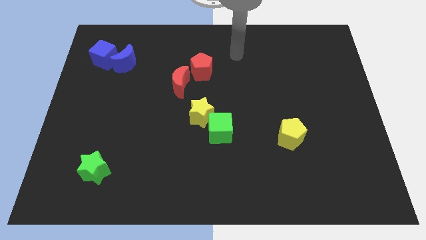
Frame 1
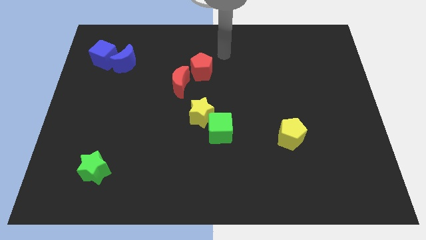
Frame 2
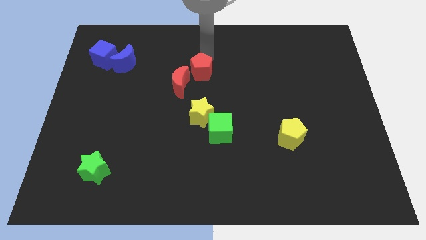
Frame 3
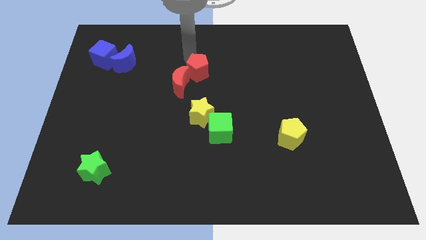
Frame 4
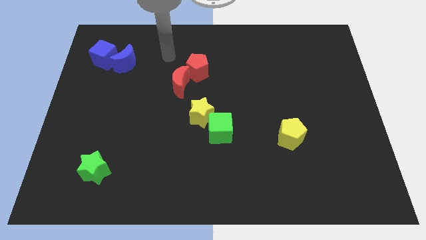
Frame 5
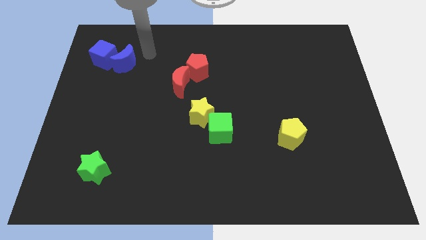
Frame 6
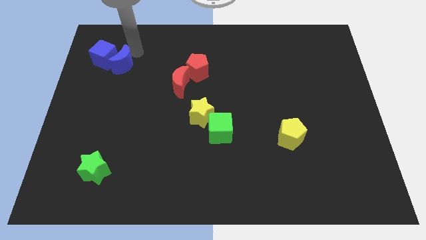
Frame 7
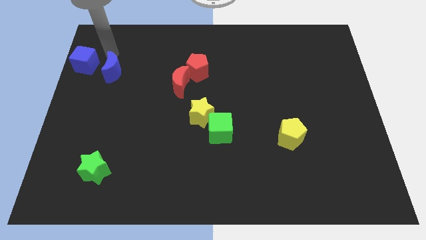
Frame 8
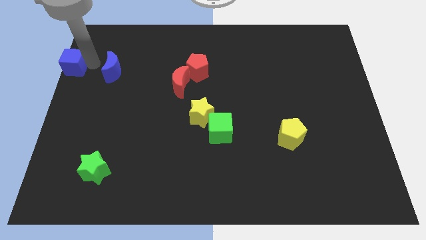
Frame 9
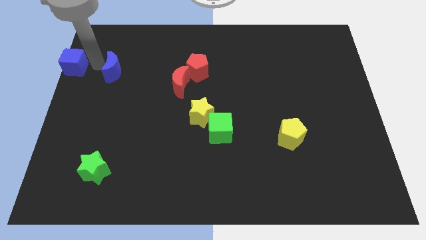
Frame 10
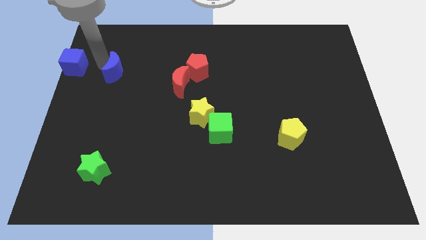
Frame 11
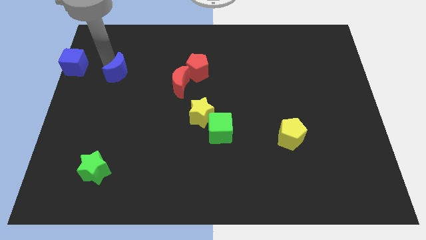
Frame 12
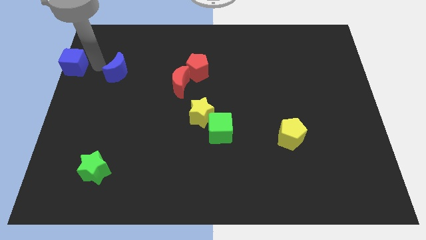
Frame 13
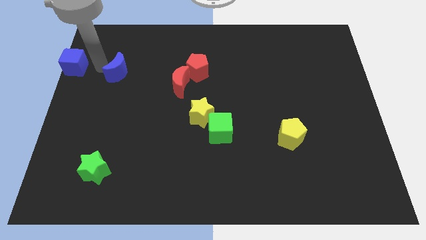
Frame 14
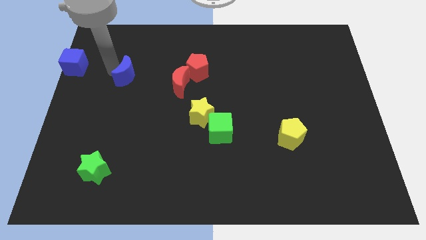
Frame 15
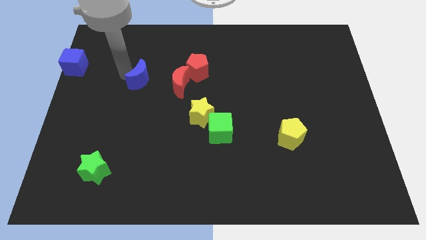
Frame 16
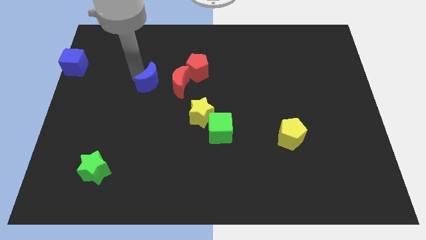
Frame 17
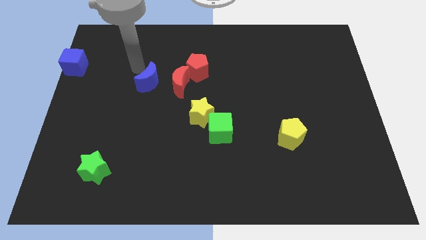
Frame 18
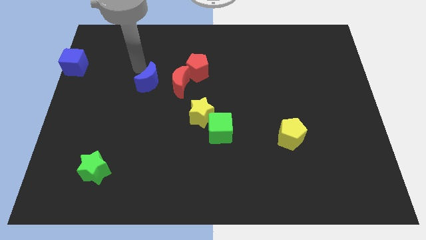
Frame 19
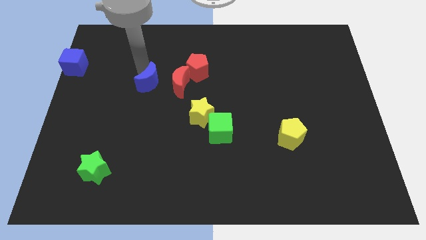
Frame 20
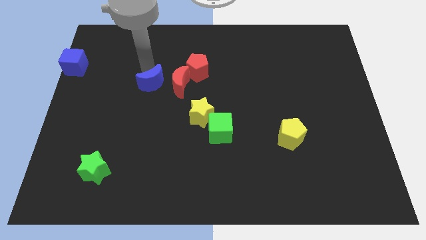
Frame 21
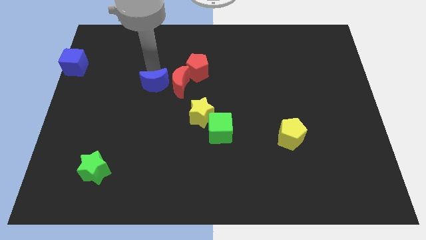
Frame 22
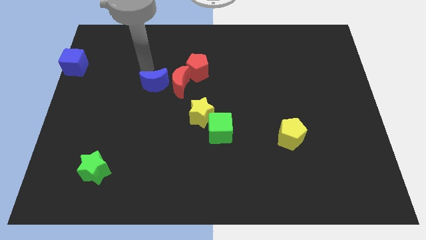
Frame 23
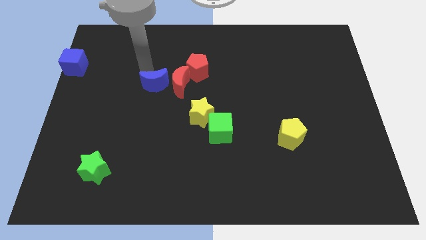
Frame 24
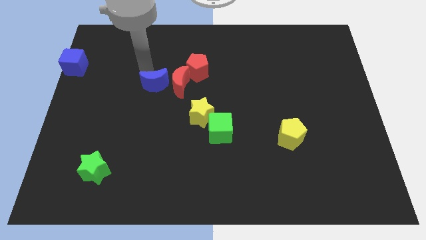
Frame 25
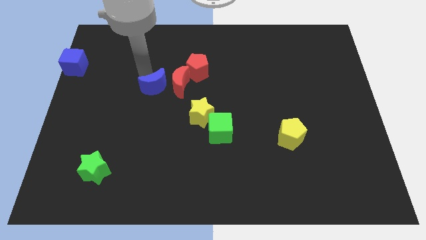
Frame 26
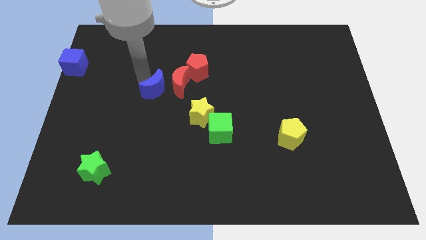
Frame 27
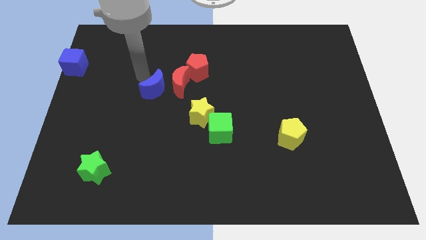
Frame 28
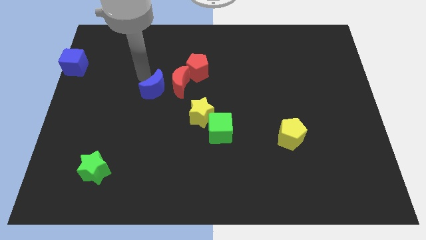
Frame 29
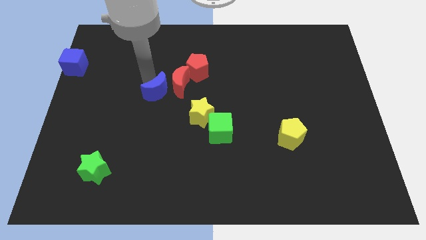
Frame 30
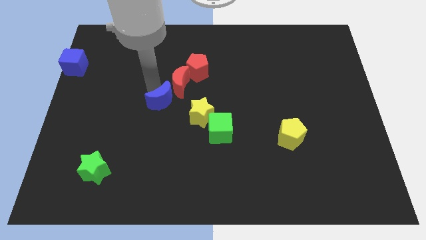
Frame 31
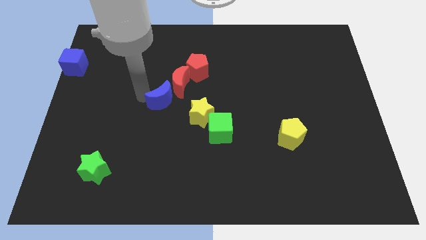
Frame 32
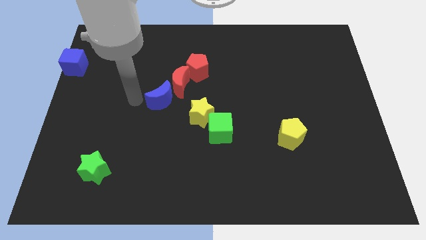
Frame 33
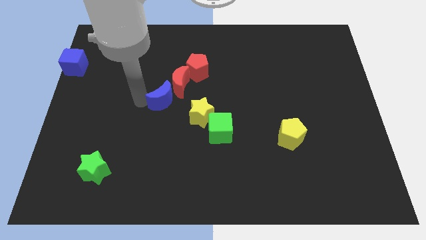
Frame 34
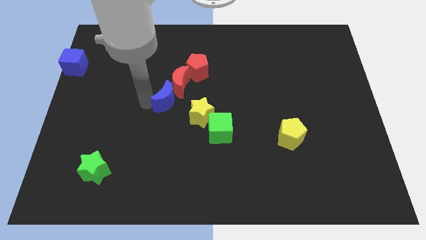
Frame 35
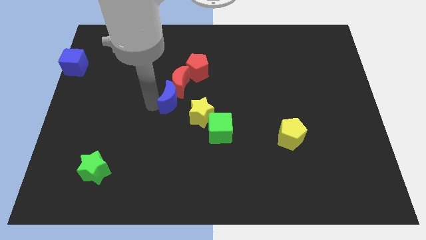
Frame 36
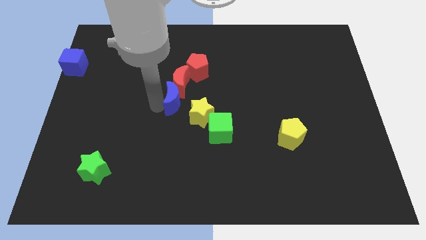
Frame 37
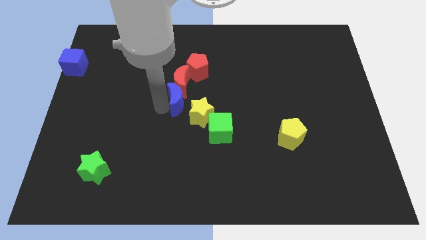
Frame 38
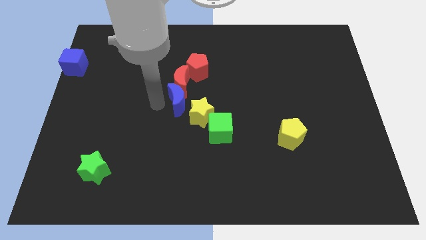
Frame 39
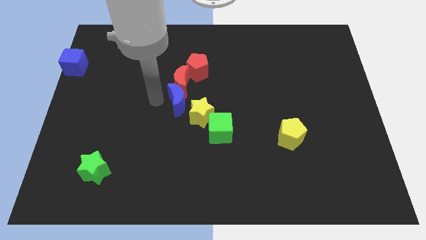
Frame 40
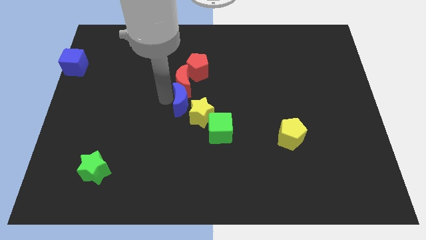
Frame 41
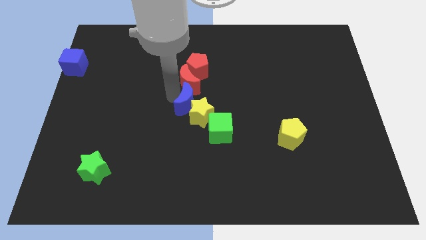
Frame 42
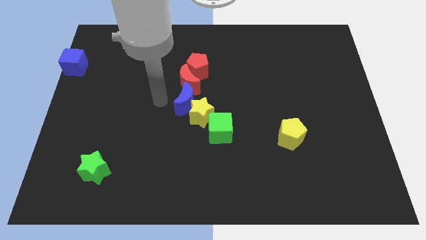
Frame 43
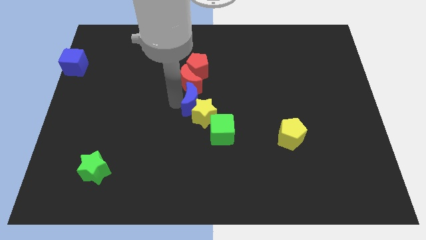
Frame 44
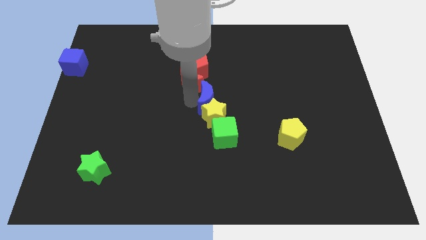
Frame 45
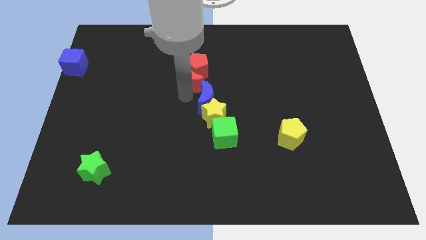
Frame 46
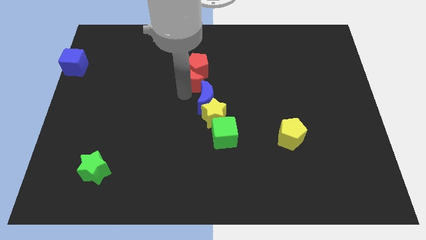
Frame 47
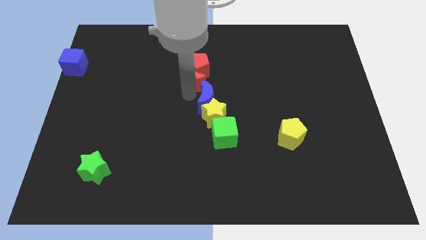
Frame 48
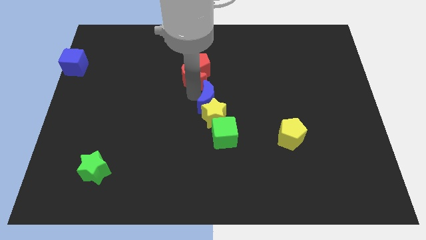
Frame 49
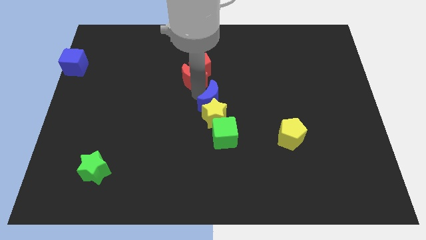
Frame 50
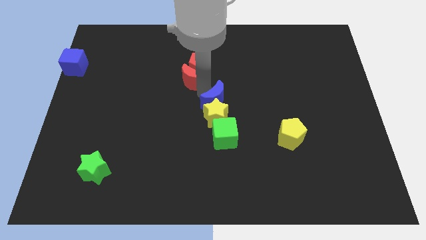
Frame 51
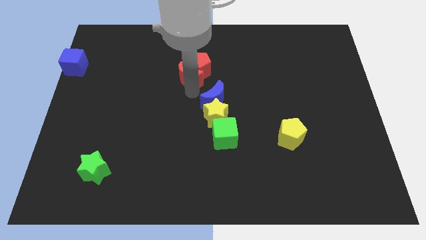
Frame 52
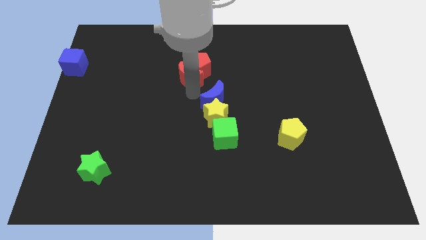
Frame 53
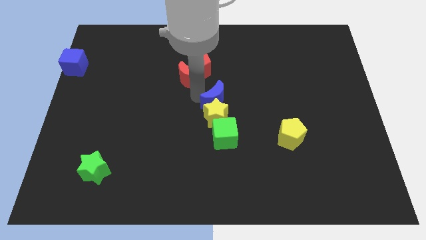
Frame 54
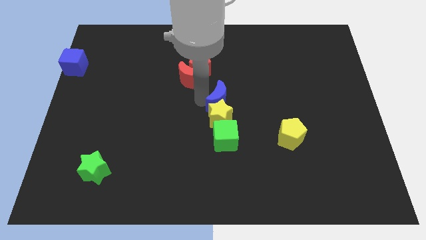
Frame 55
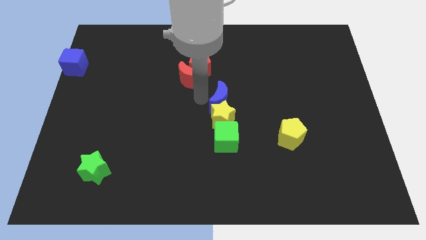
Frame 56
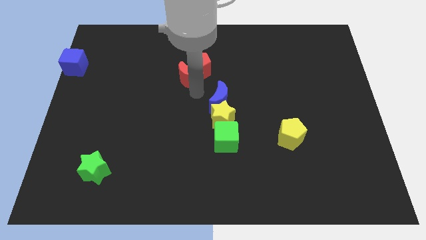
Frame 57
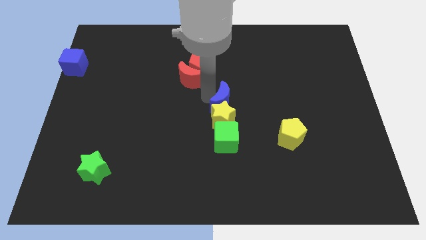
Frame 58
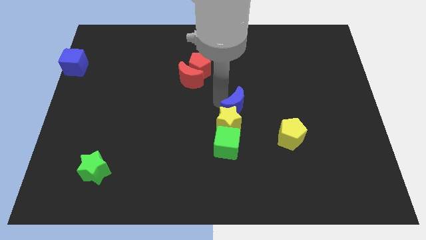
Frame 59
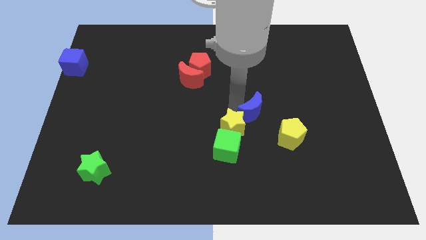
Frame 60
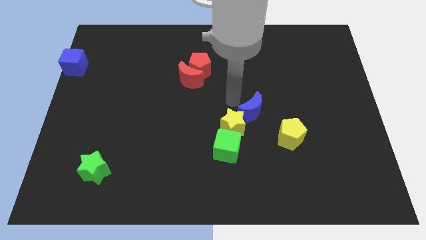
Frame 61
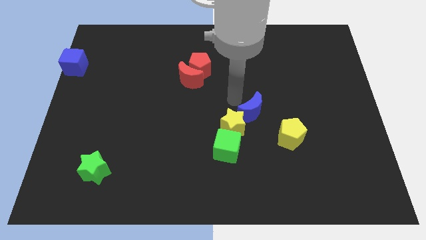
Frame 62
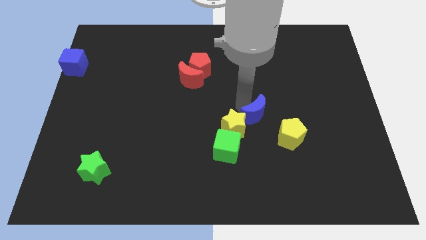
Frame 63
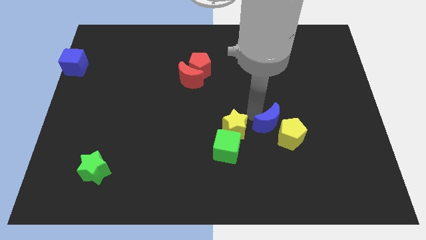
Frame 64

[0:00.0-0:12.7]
move the blue moon towards the yellow pentagon

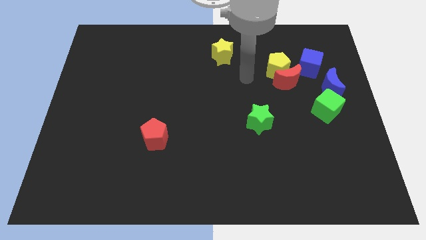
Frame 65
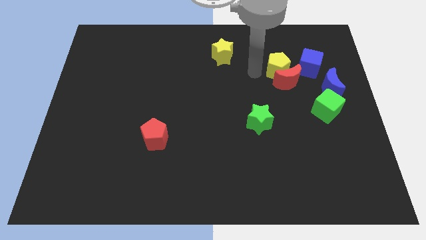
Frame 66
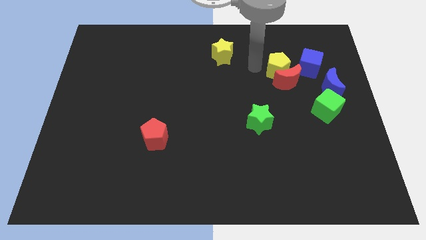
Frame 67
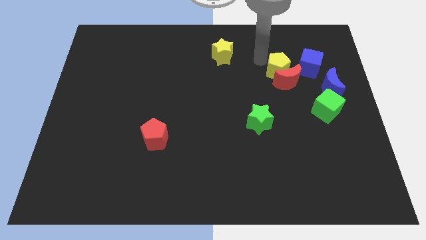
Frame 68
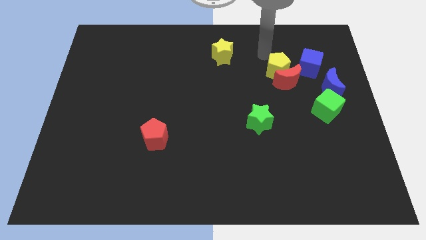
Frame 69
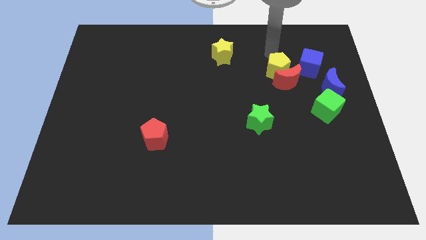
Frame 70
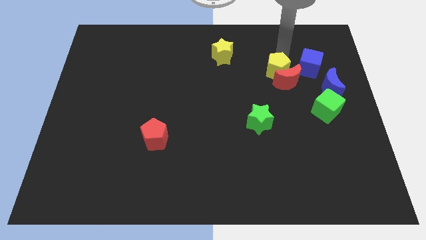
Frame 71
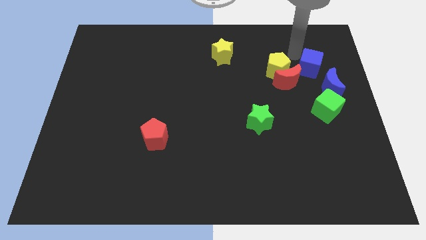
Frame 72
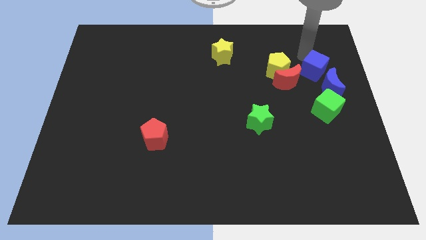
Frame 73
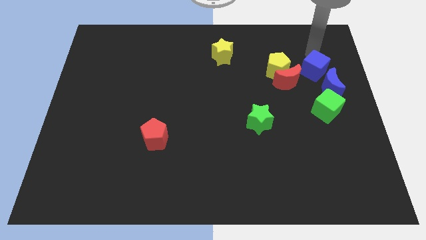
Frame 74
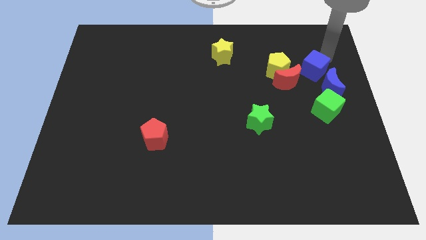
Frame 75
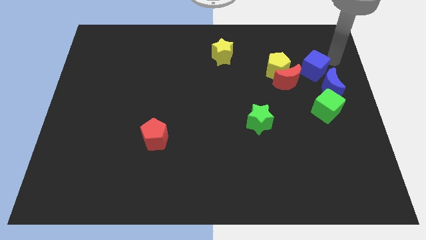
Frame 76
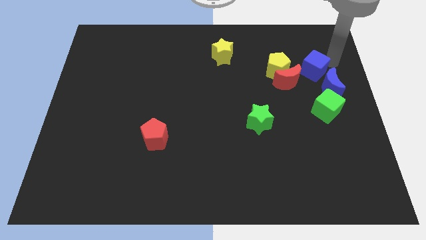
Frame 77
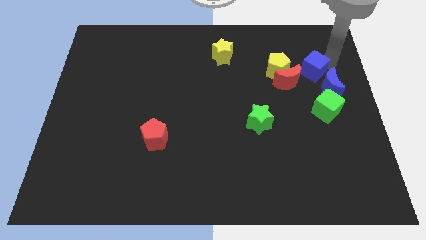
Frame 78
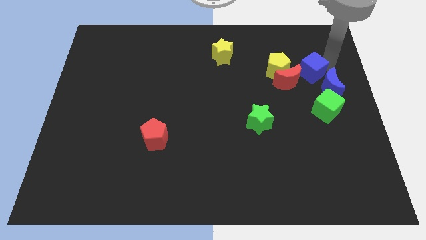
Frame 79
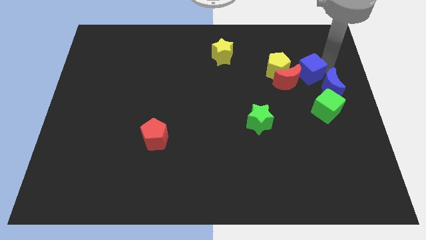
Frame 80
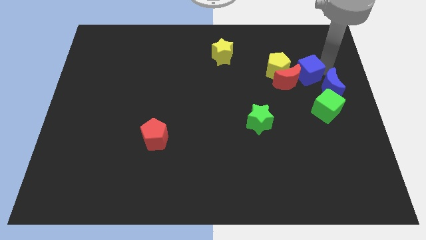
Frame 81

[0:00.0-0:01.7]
move the blue cube towards the red moon
